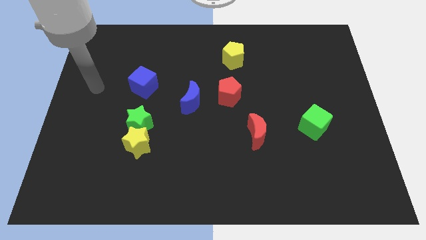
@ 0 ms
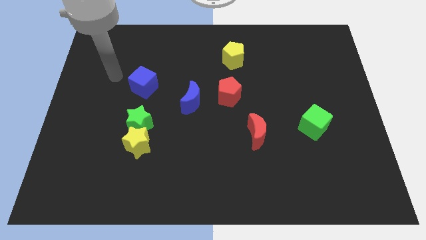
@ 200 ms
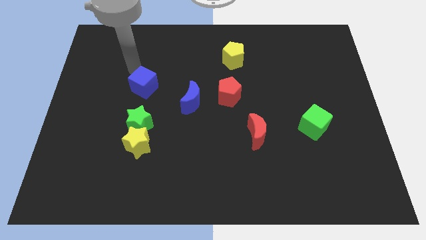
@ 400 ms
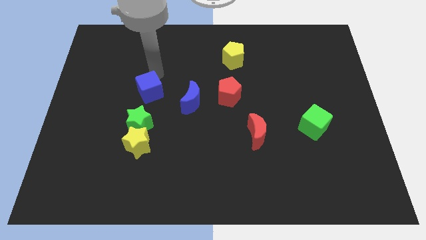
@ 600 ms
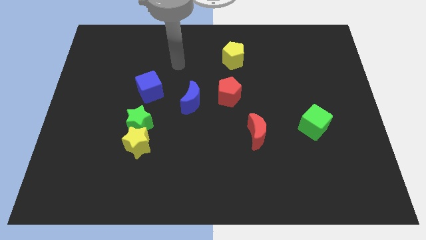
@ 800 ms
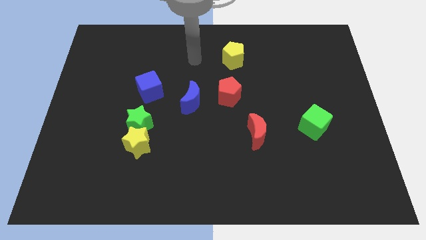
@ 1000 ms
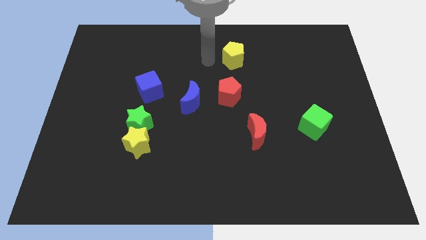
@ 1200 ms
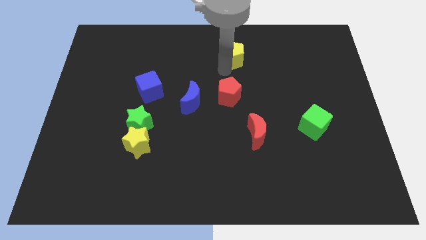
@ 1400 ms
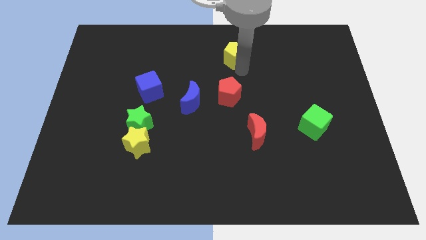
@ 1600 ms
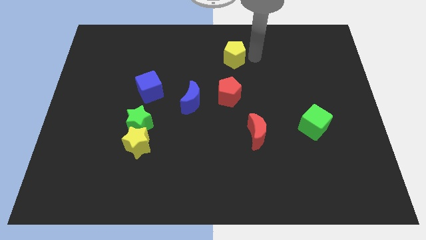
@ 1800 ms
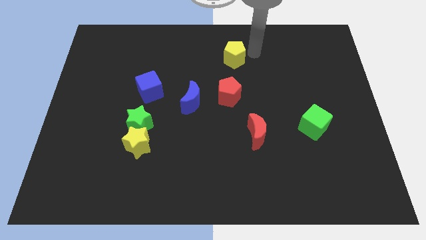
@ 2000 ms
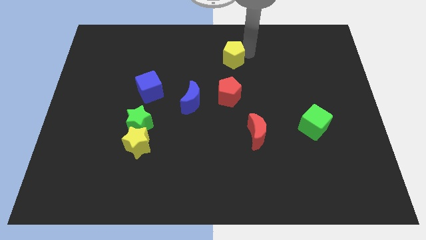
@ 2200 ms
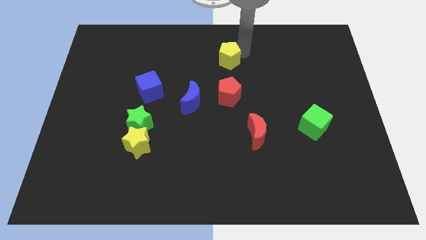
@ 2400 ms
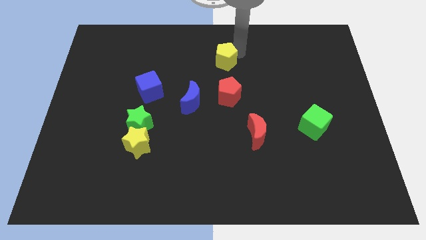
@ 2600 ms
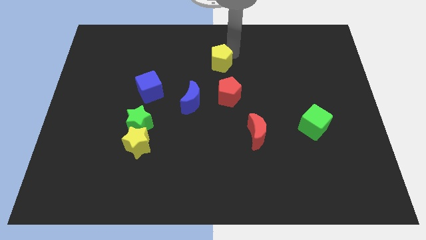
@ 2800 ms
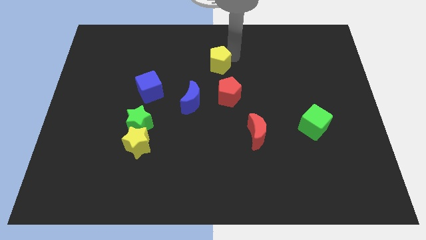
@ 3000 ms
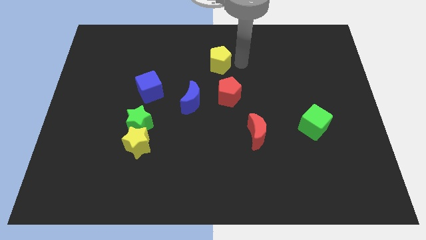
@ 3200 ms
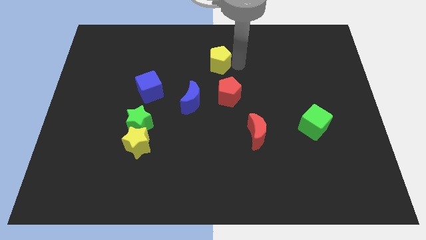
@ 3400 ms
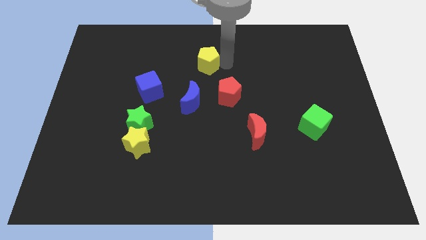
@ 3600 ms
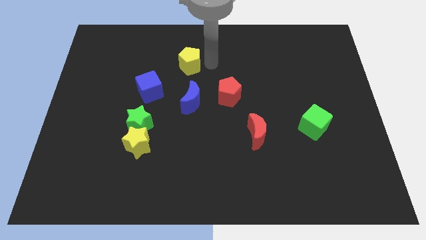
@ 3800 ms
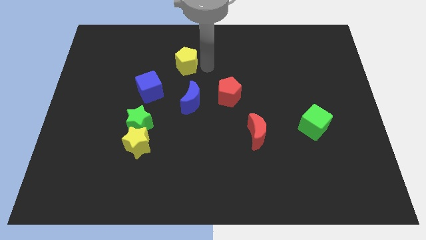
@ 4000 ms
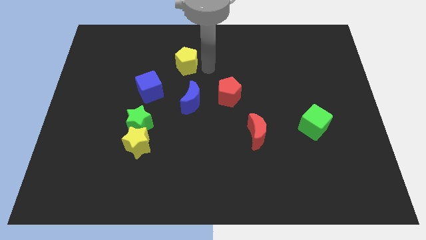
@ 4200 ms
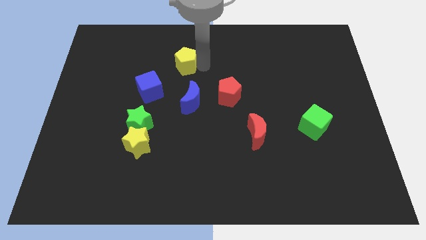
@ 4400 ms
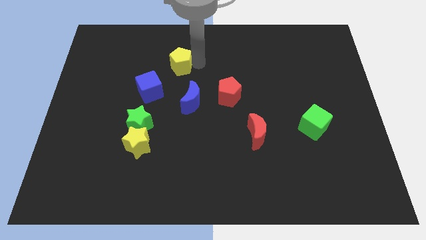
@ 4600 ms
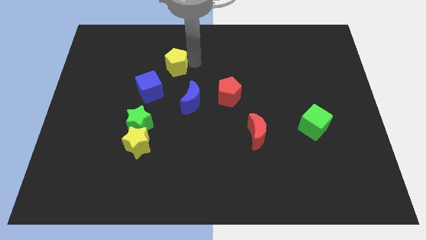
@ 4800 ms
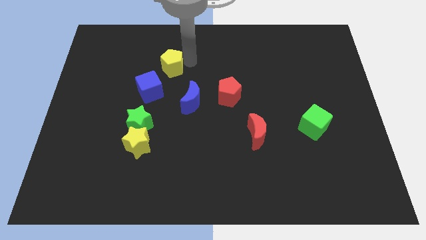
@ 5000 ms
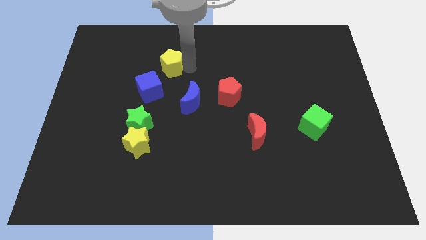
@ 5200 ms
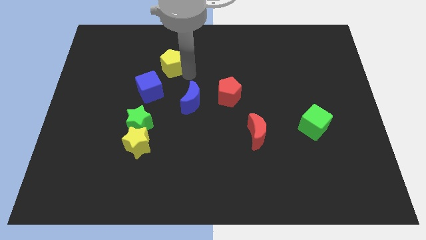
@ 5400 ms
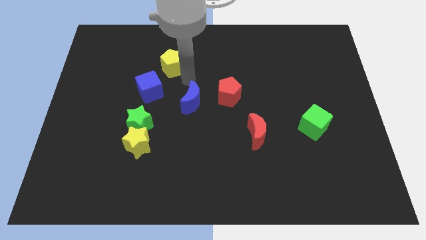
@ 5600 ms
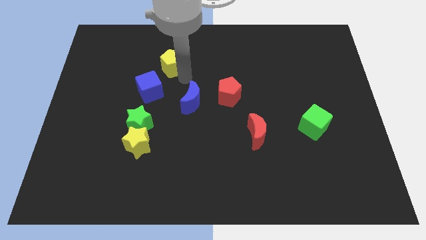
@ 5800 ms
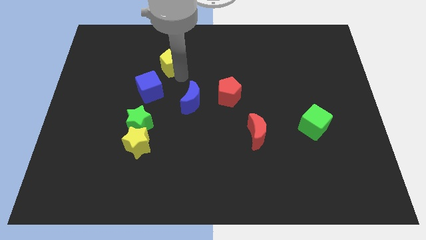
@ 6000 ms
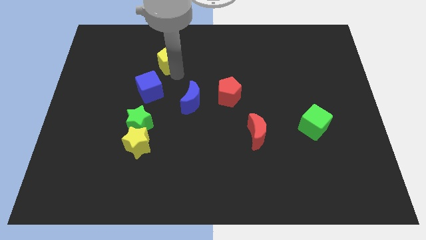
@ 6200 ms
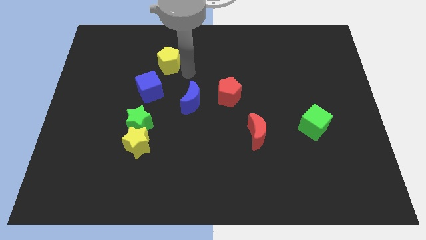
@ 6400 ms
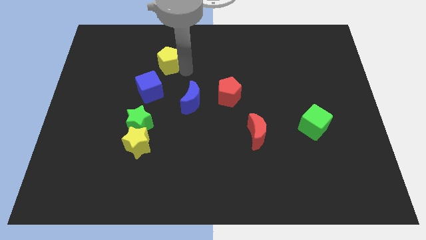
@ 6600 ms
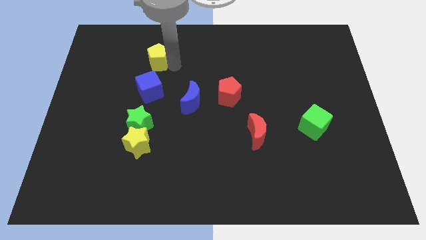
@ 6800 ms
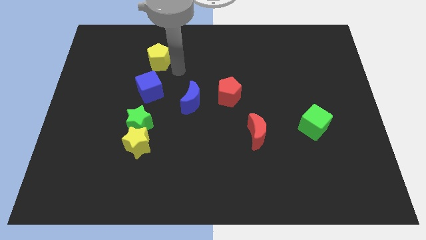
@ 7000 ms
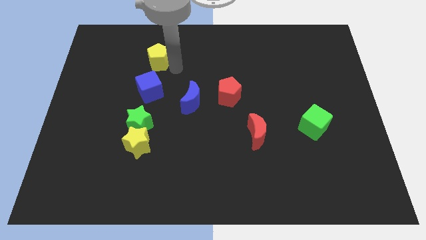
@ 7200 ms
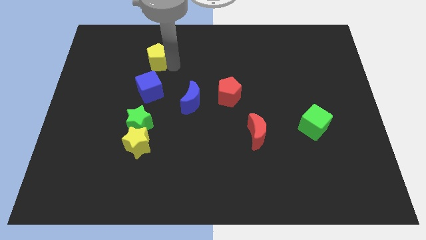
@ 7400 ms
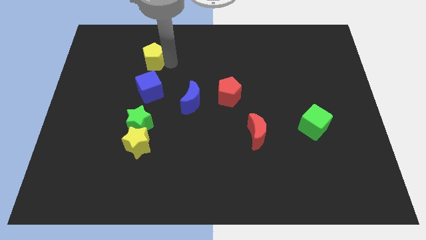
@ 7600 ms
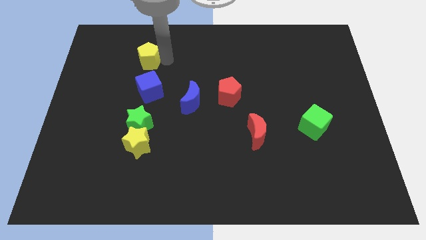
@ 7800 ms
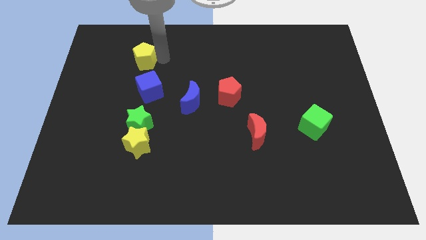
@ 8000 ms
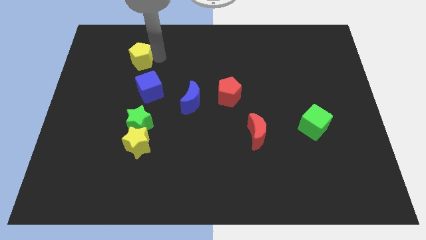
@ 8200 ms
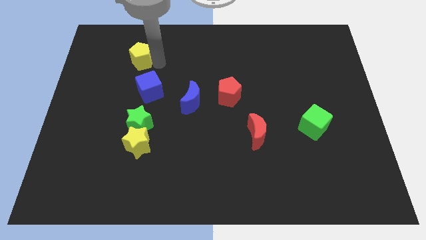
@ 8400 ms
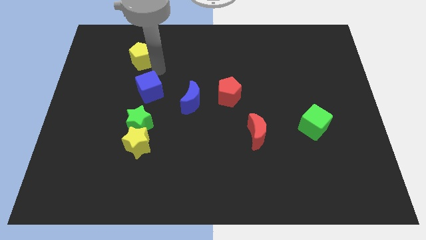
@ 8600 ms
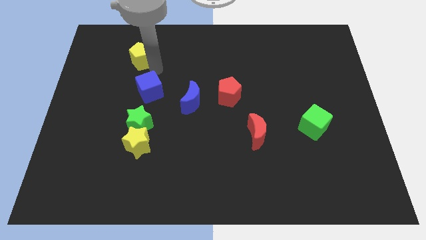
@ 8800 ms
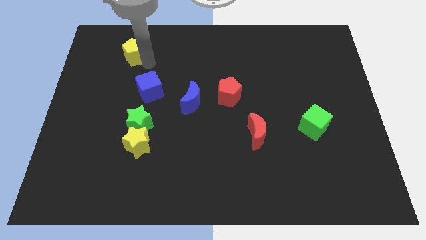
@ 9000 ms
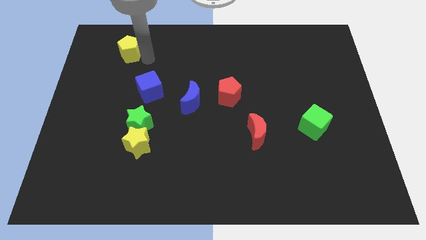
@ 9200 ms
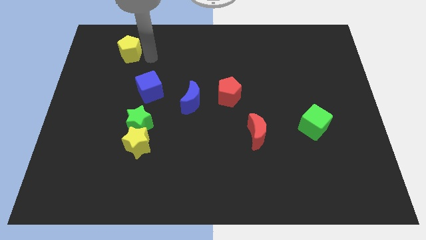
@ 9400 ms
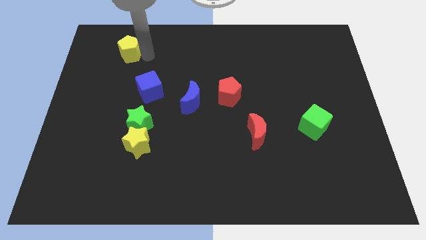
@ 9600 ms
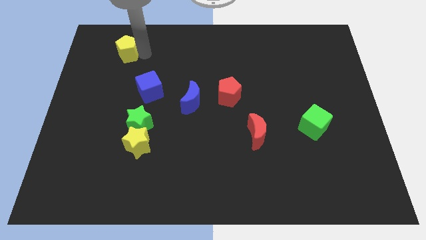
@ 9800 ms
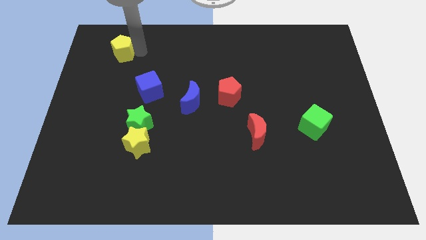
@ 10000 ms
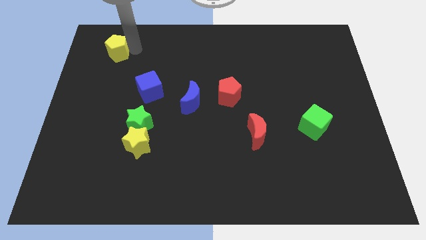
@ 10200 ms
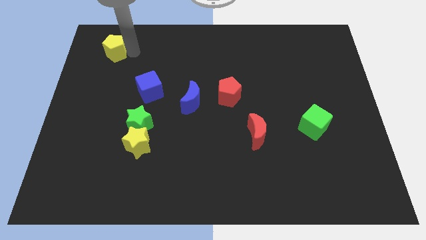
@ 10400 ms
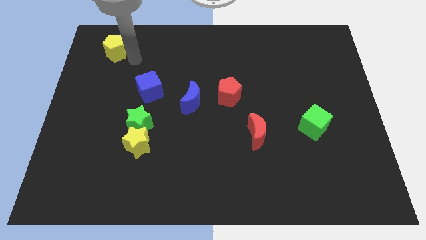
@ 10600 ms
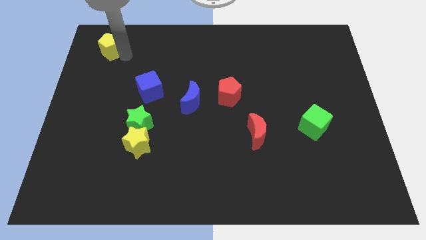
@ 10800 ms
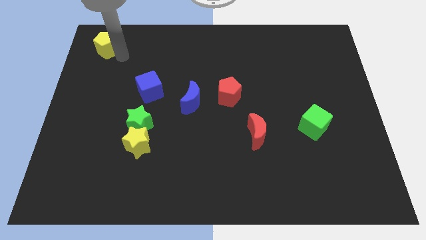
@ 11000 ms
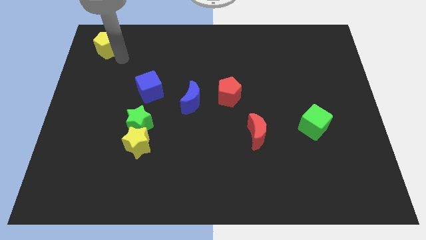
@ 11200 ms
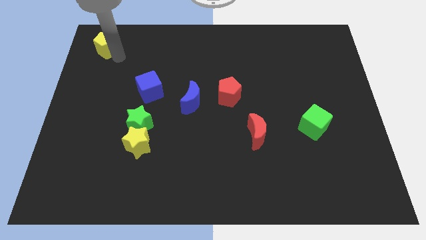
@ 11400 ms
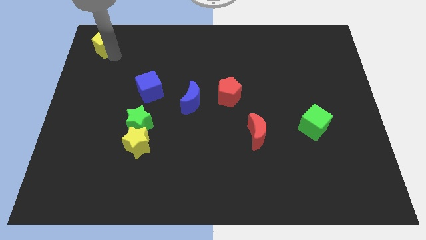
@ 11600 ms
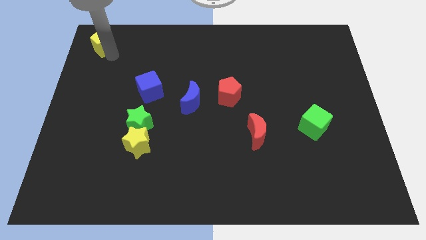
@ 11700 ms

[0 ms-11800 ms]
move the yellow pentagon to the top left
